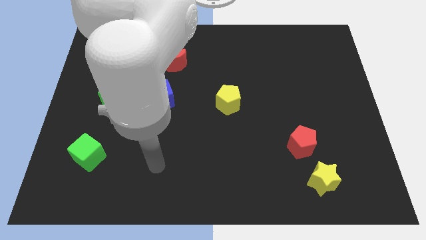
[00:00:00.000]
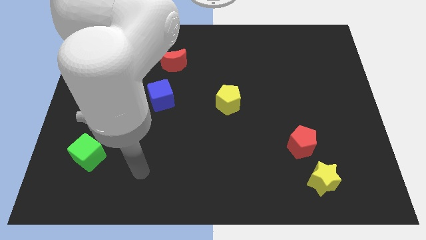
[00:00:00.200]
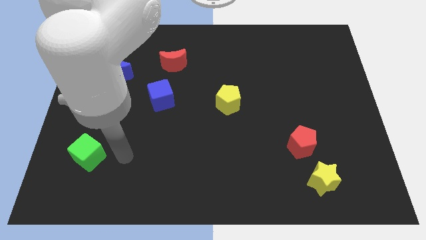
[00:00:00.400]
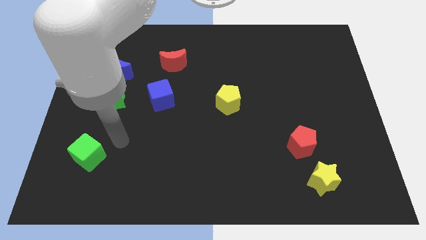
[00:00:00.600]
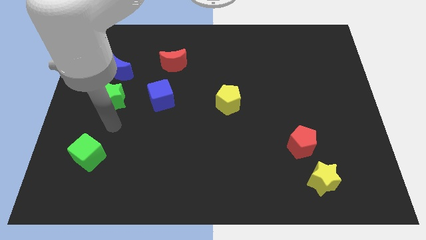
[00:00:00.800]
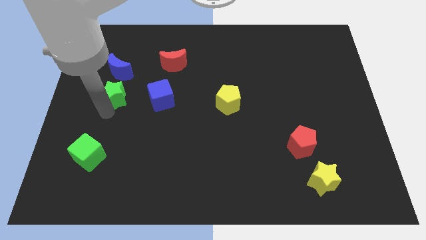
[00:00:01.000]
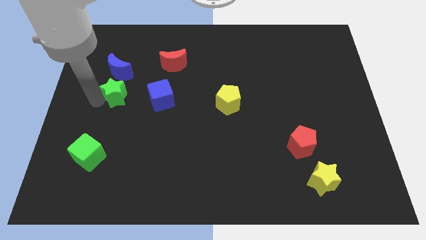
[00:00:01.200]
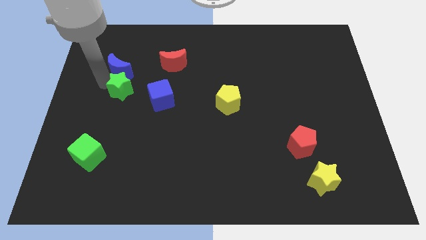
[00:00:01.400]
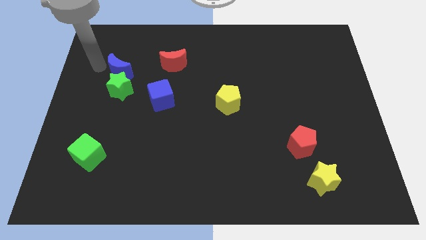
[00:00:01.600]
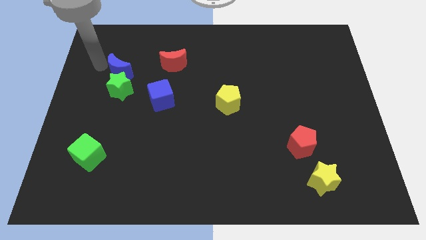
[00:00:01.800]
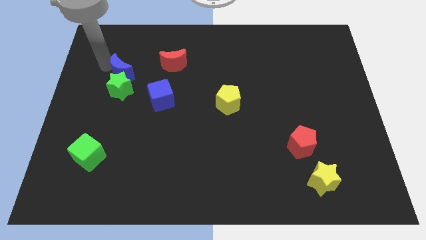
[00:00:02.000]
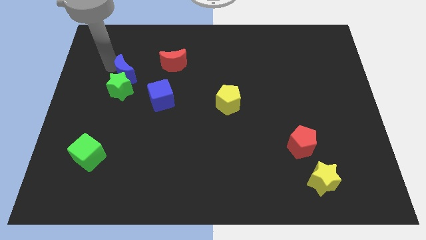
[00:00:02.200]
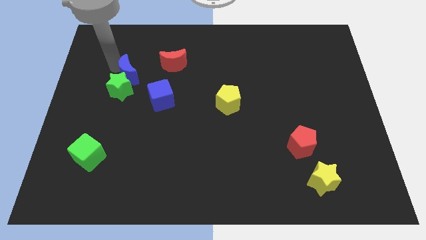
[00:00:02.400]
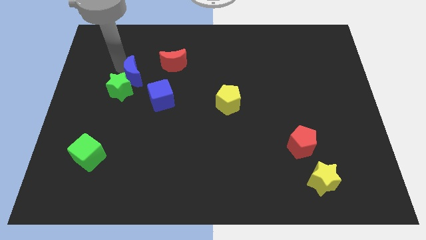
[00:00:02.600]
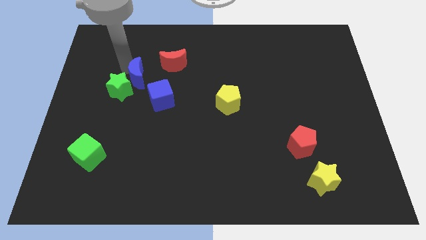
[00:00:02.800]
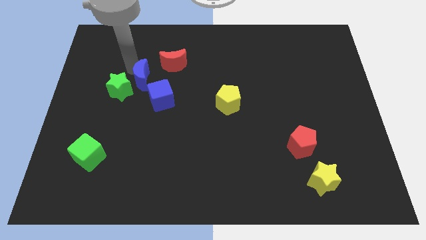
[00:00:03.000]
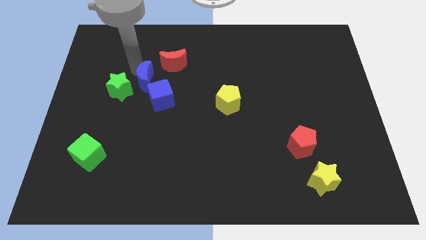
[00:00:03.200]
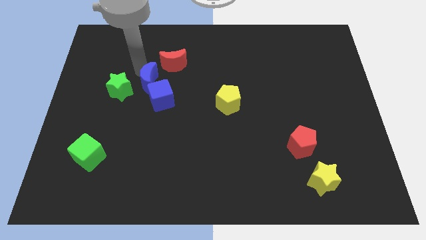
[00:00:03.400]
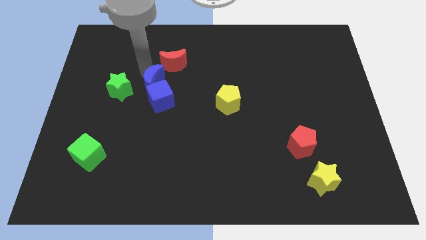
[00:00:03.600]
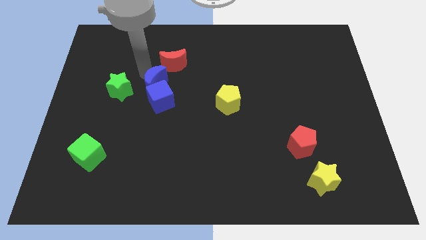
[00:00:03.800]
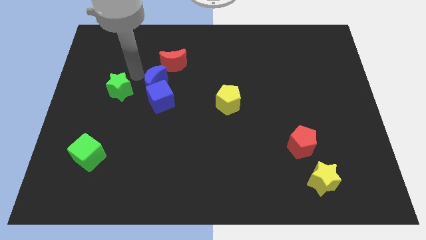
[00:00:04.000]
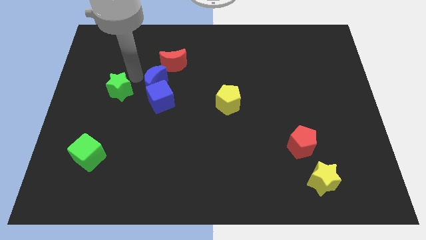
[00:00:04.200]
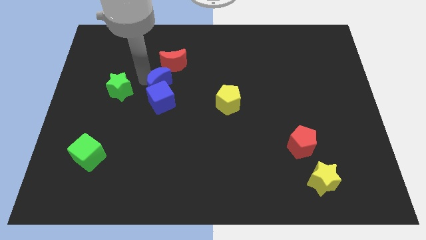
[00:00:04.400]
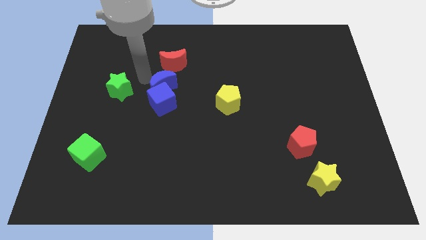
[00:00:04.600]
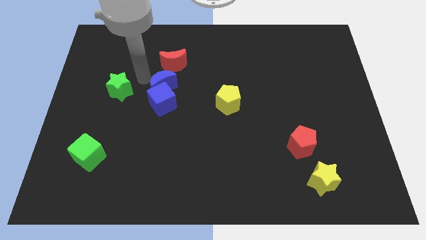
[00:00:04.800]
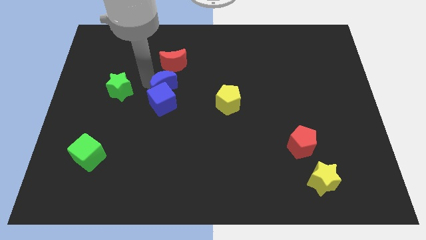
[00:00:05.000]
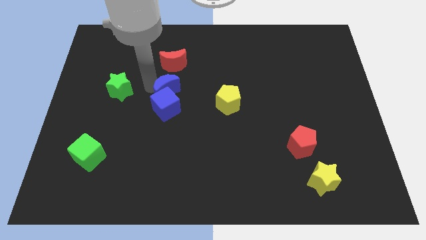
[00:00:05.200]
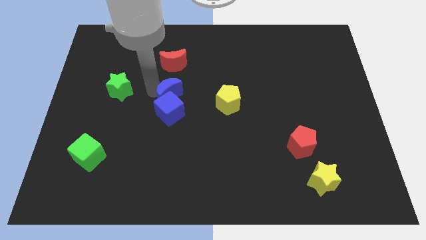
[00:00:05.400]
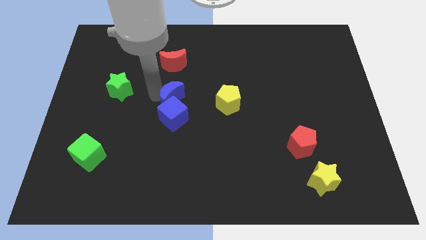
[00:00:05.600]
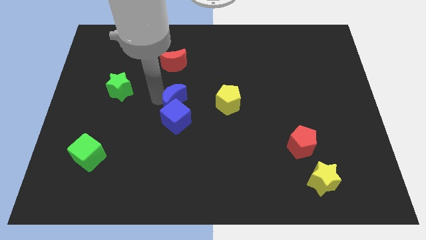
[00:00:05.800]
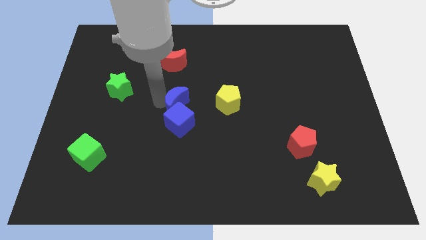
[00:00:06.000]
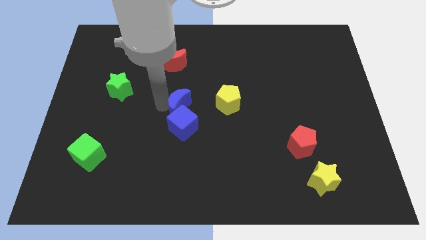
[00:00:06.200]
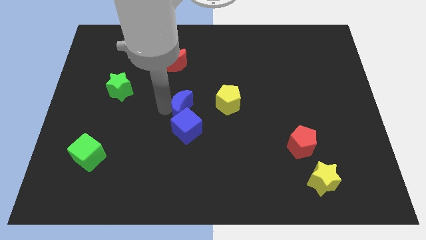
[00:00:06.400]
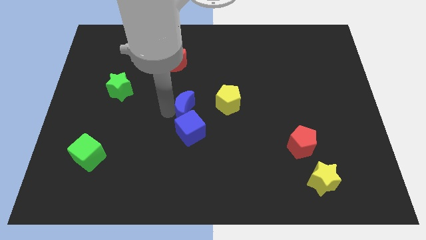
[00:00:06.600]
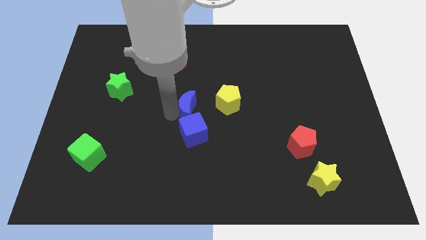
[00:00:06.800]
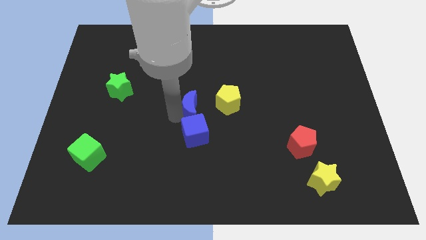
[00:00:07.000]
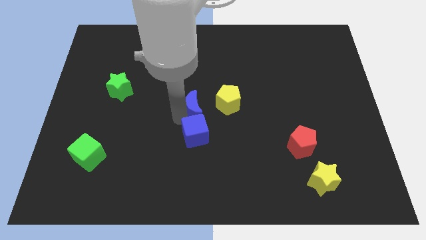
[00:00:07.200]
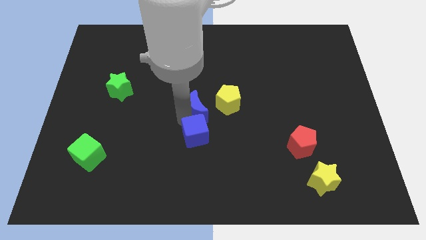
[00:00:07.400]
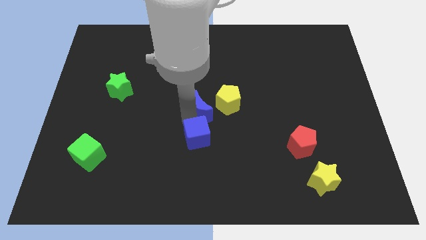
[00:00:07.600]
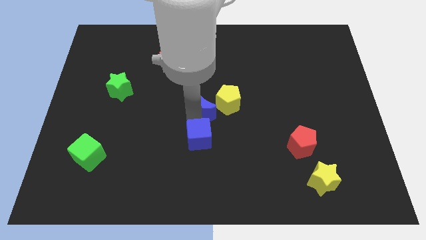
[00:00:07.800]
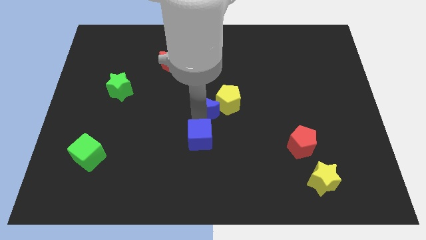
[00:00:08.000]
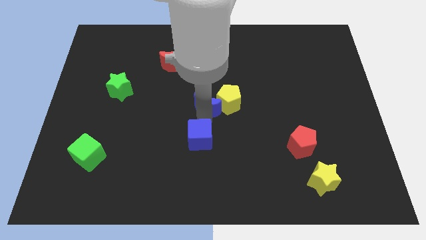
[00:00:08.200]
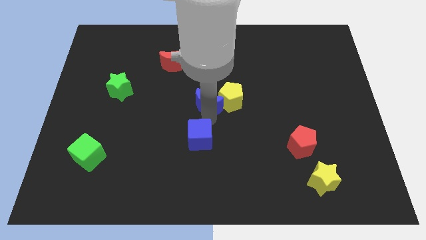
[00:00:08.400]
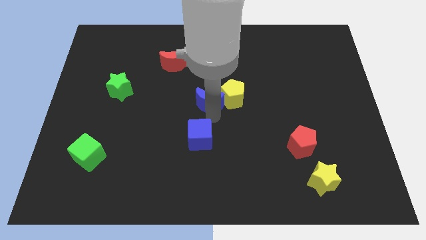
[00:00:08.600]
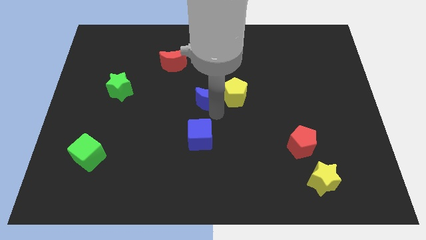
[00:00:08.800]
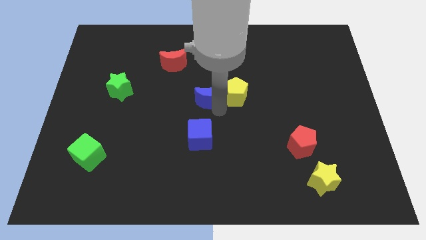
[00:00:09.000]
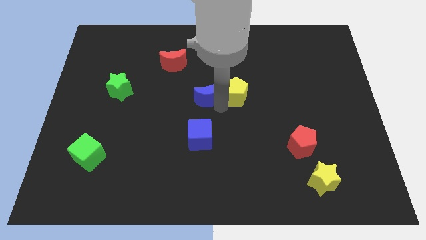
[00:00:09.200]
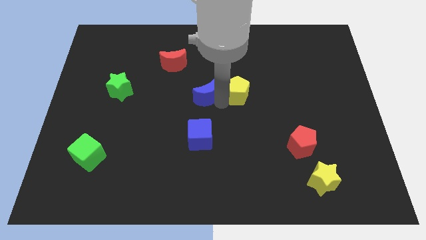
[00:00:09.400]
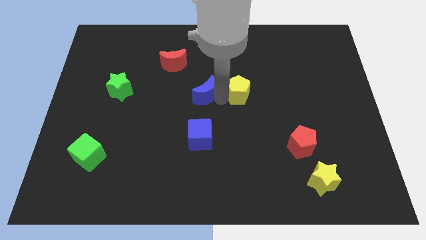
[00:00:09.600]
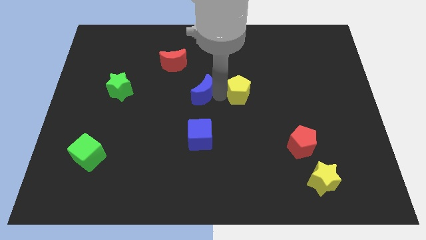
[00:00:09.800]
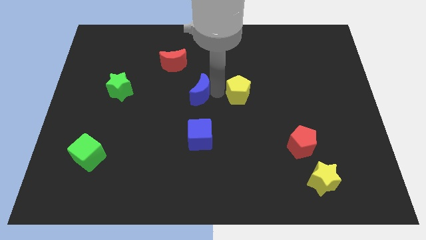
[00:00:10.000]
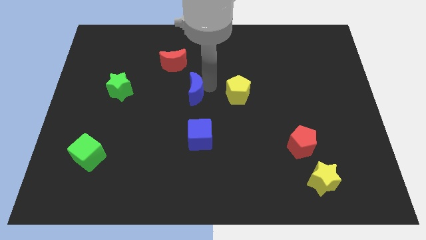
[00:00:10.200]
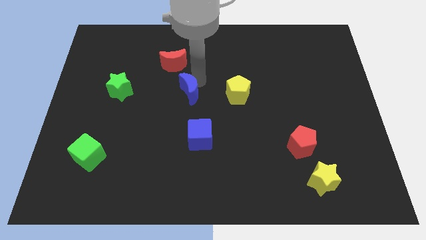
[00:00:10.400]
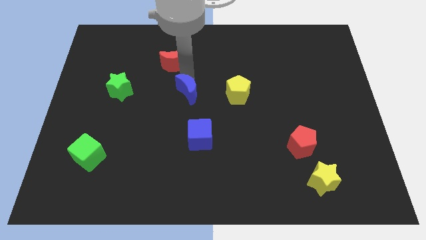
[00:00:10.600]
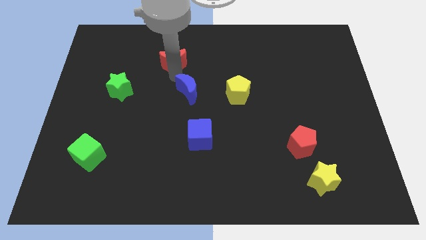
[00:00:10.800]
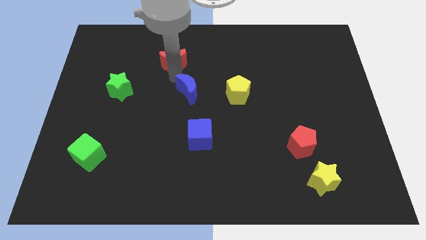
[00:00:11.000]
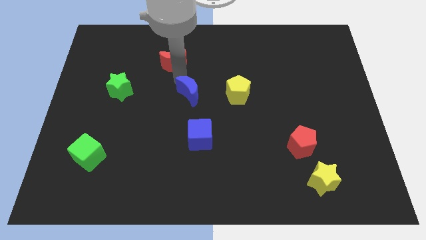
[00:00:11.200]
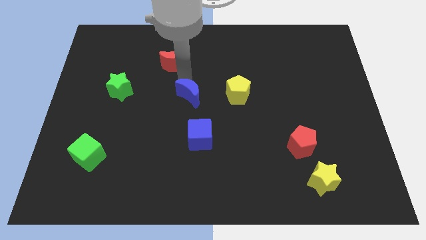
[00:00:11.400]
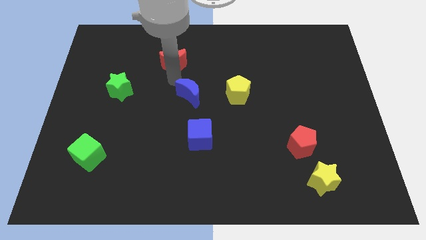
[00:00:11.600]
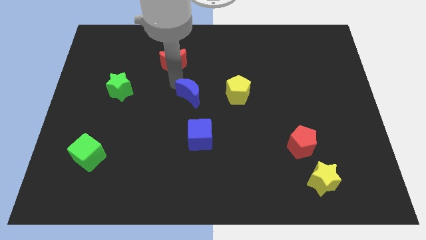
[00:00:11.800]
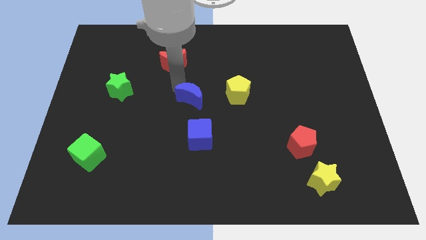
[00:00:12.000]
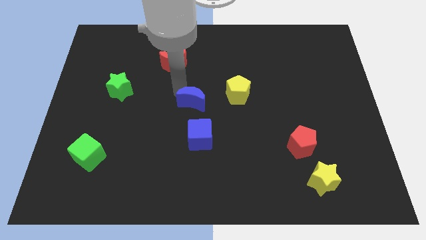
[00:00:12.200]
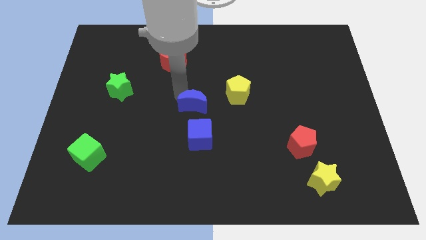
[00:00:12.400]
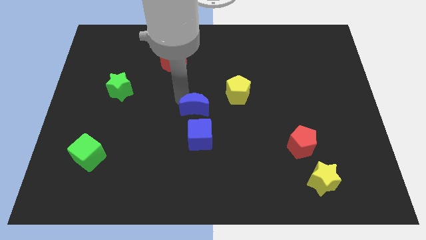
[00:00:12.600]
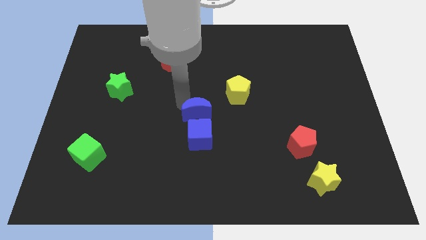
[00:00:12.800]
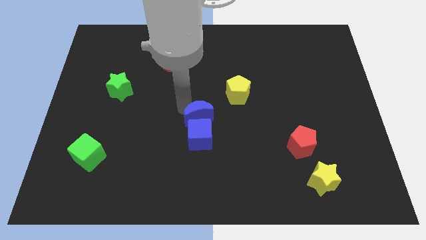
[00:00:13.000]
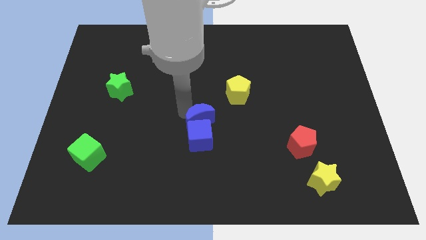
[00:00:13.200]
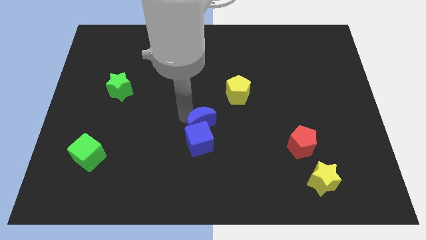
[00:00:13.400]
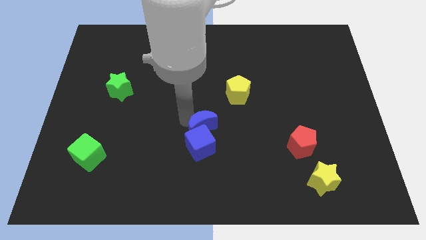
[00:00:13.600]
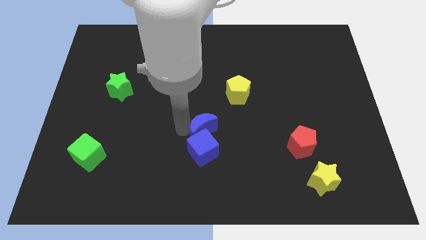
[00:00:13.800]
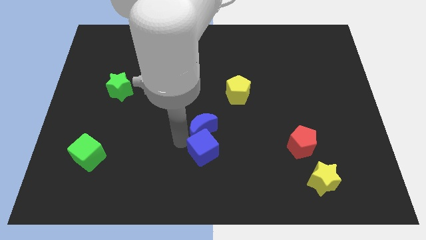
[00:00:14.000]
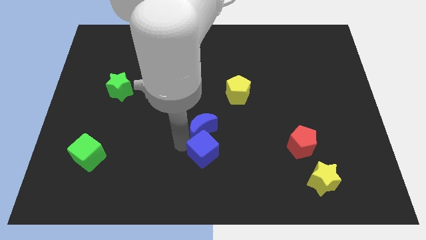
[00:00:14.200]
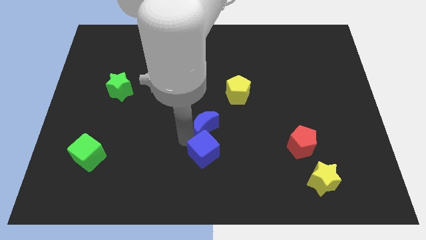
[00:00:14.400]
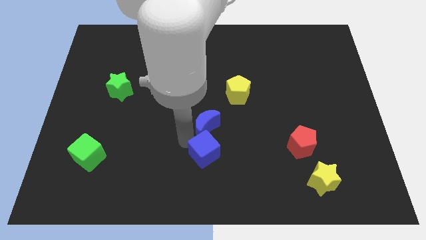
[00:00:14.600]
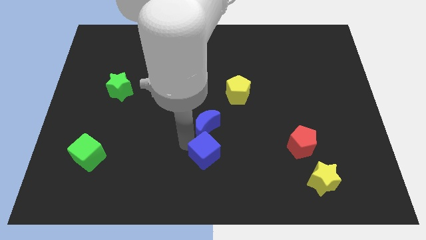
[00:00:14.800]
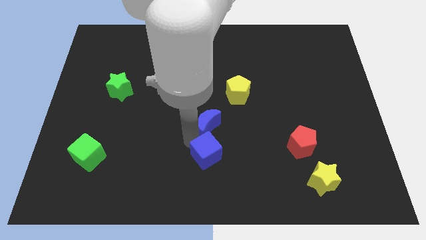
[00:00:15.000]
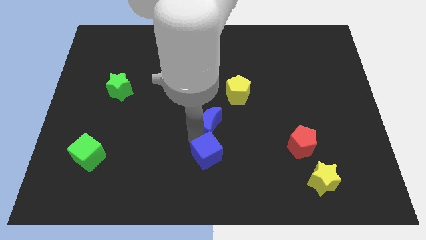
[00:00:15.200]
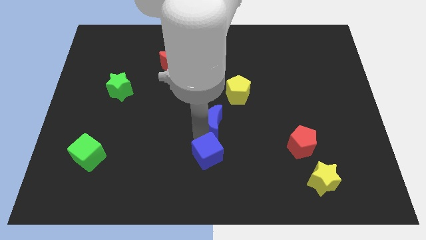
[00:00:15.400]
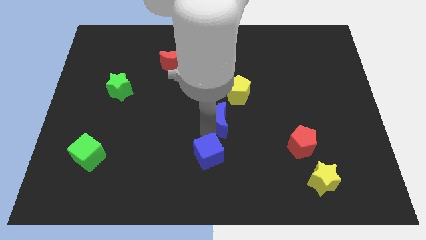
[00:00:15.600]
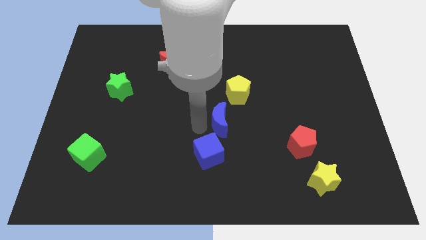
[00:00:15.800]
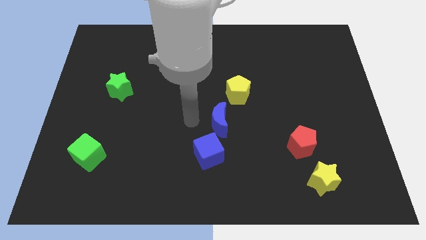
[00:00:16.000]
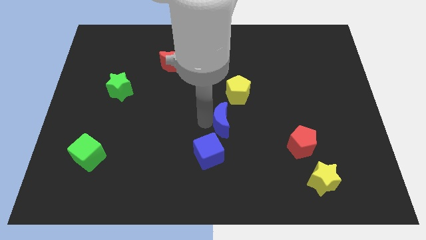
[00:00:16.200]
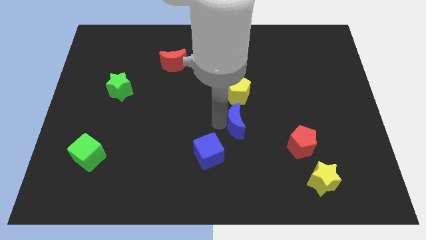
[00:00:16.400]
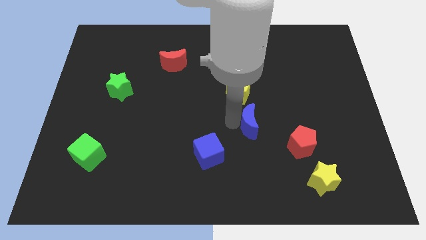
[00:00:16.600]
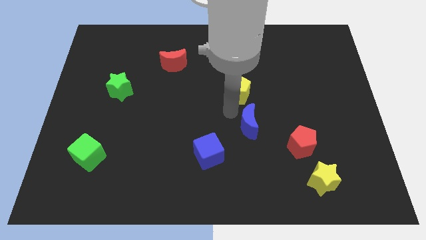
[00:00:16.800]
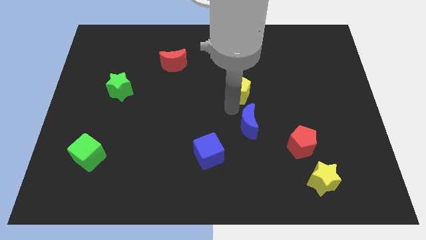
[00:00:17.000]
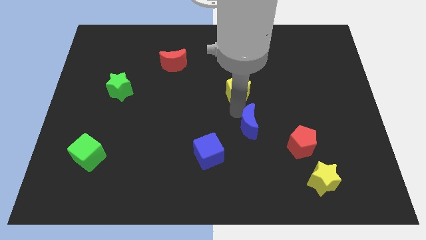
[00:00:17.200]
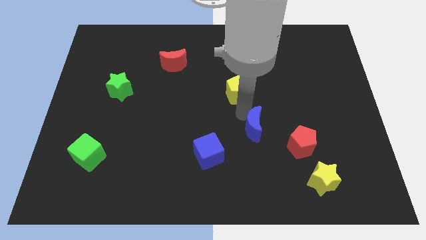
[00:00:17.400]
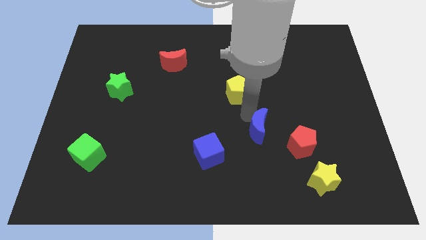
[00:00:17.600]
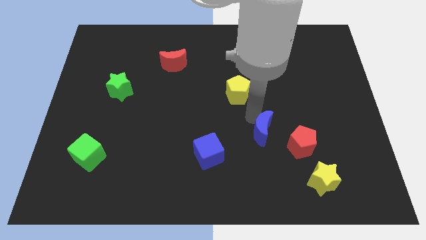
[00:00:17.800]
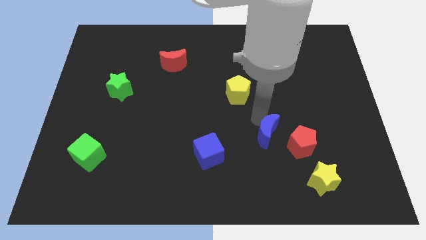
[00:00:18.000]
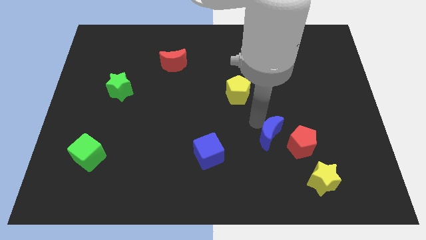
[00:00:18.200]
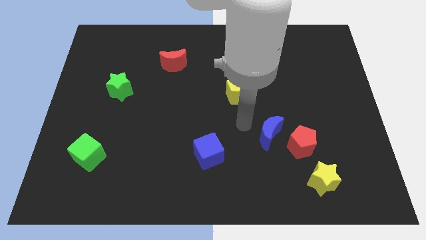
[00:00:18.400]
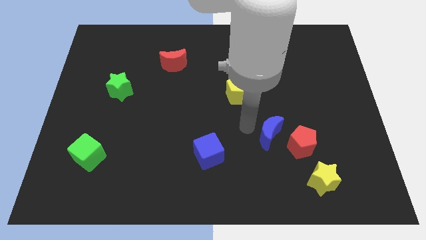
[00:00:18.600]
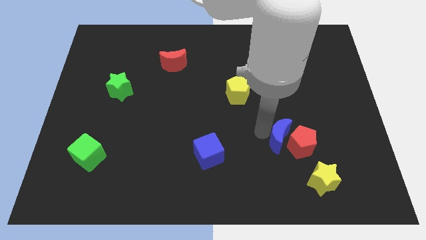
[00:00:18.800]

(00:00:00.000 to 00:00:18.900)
put the blue moon towards the red pentagon
